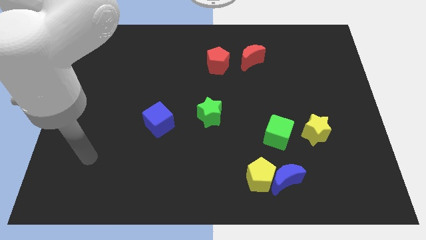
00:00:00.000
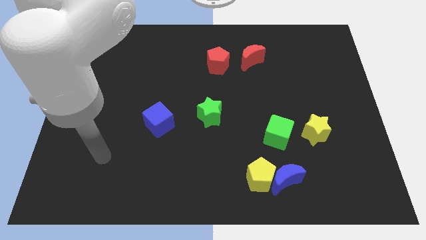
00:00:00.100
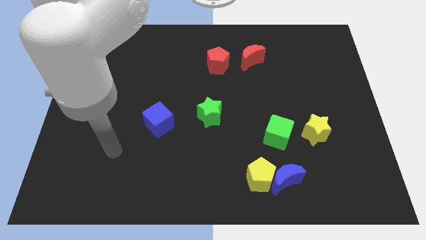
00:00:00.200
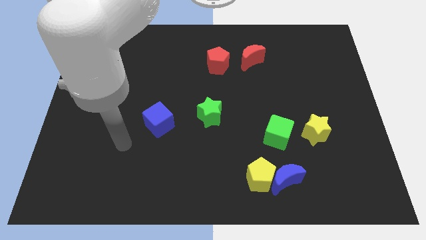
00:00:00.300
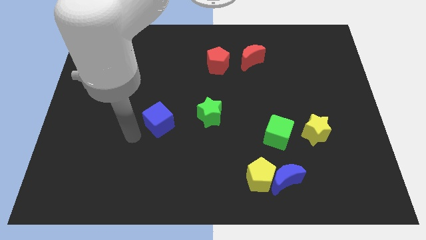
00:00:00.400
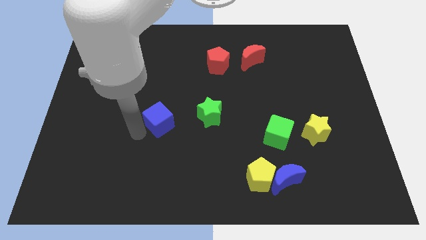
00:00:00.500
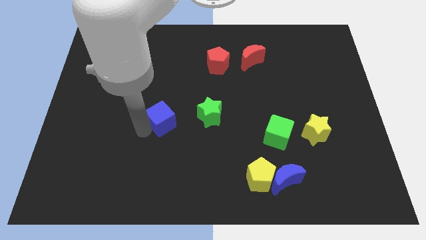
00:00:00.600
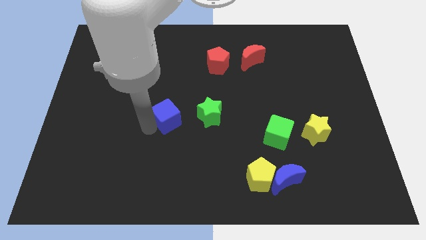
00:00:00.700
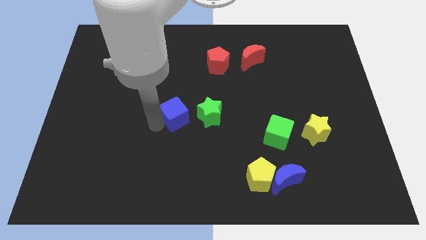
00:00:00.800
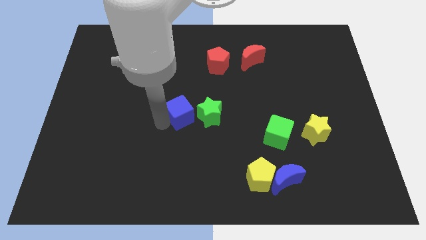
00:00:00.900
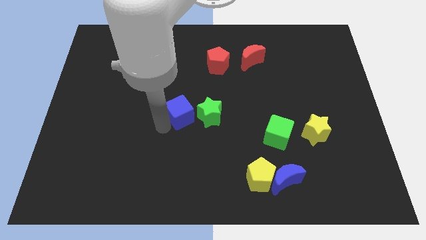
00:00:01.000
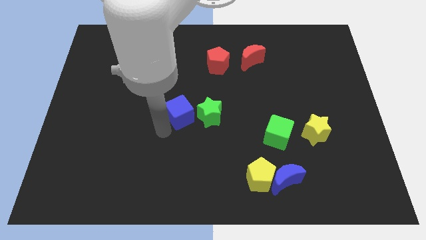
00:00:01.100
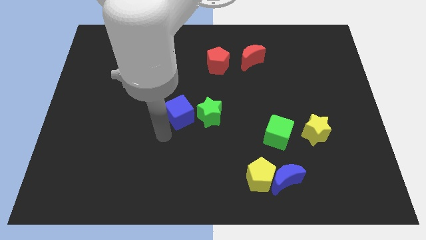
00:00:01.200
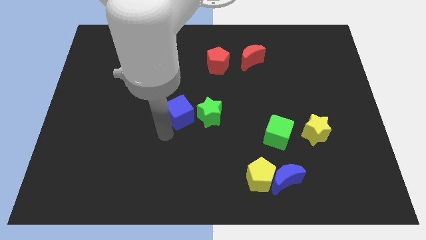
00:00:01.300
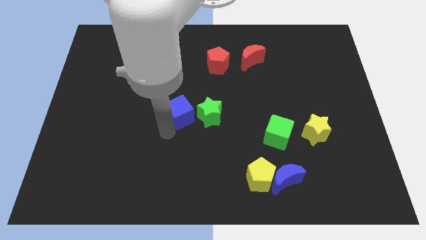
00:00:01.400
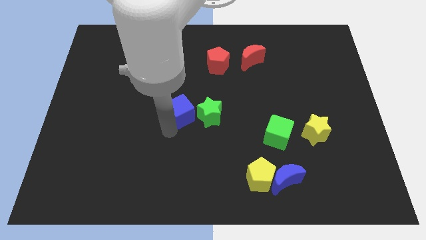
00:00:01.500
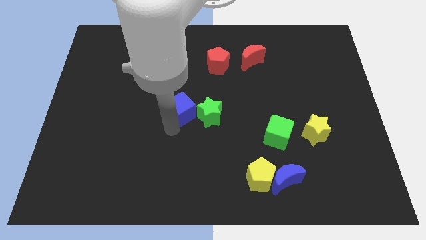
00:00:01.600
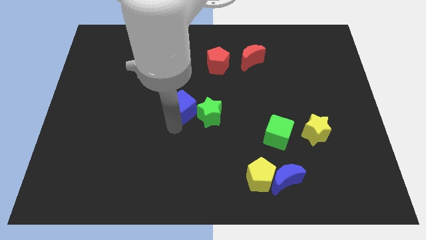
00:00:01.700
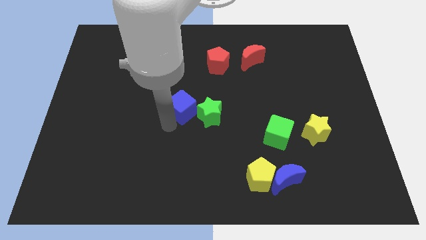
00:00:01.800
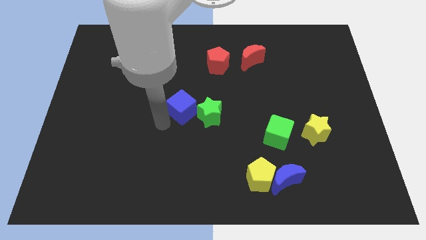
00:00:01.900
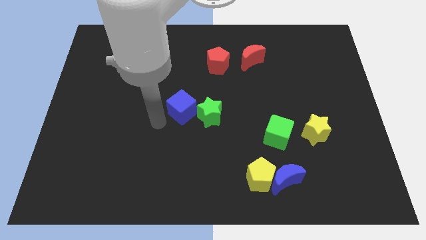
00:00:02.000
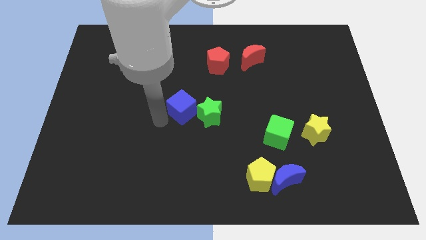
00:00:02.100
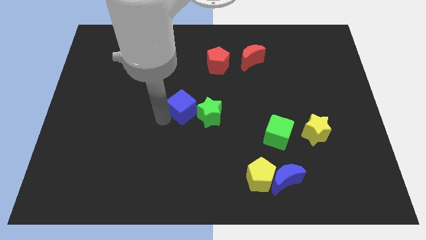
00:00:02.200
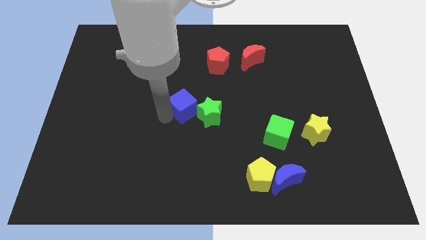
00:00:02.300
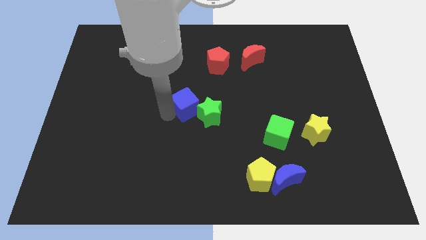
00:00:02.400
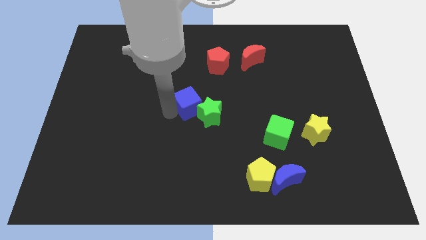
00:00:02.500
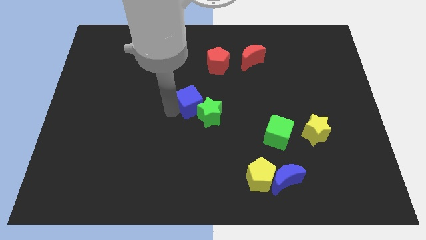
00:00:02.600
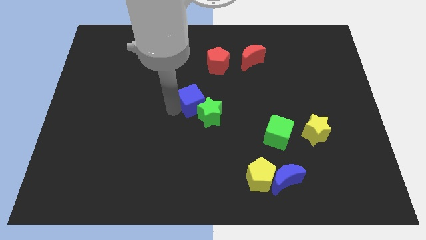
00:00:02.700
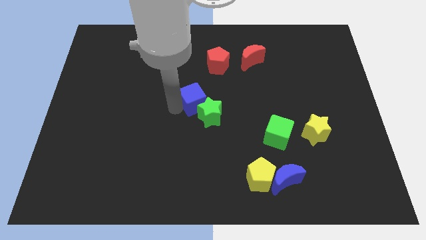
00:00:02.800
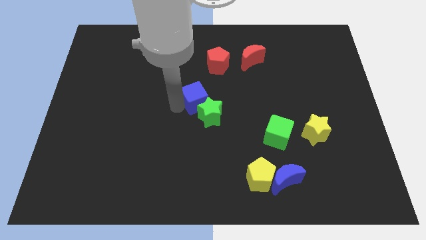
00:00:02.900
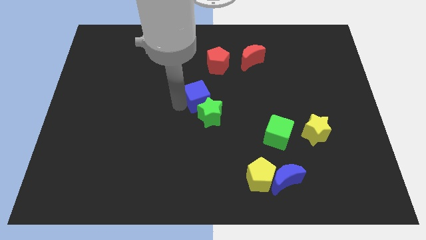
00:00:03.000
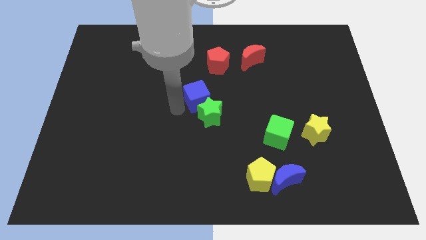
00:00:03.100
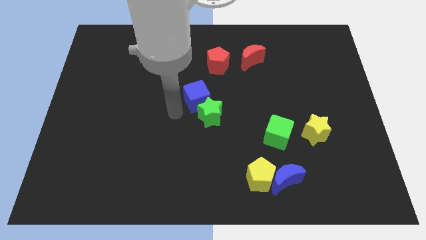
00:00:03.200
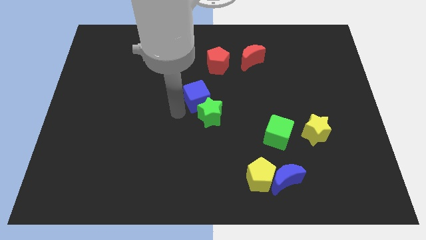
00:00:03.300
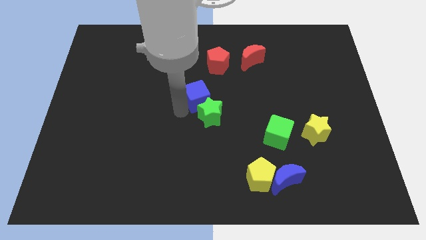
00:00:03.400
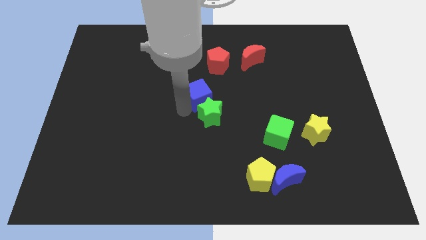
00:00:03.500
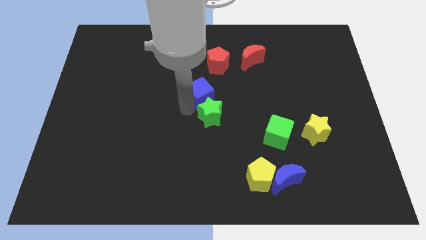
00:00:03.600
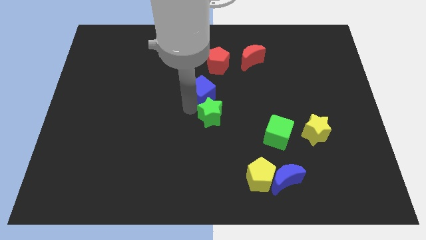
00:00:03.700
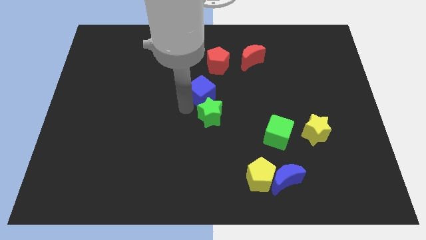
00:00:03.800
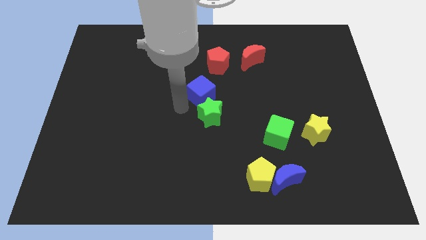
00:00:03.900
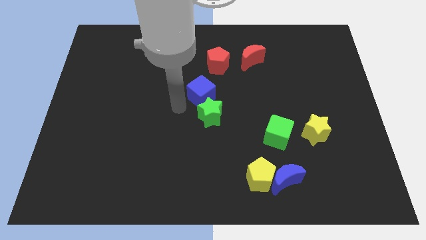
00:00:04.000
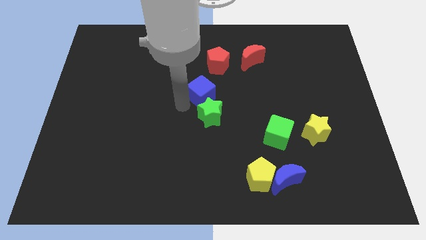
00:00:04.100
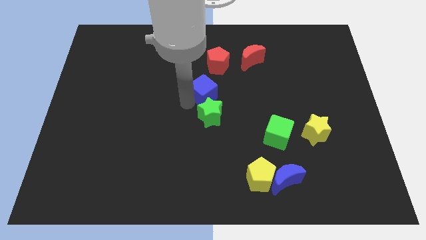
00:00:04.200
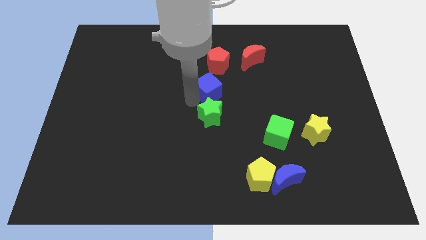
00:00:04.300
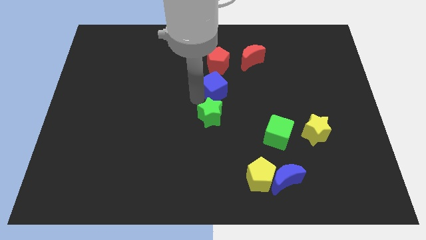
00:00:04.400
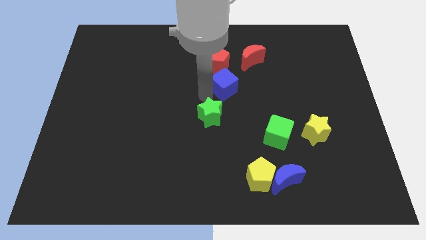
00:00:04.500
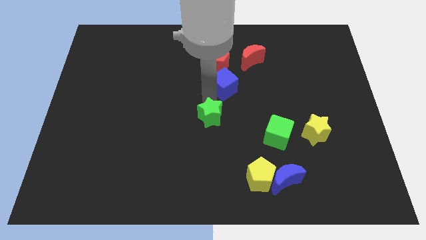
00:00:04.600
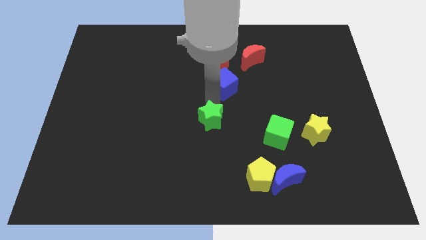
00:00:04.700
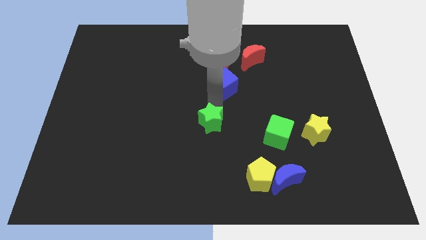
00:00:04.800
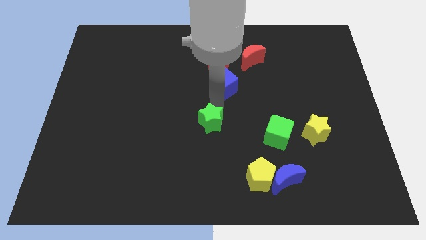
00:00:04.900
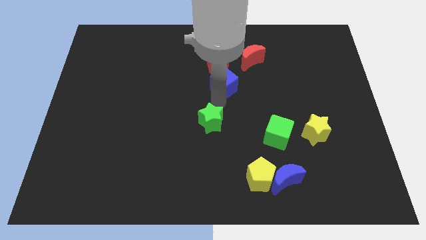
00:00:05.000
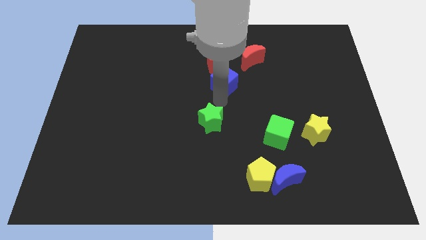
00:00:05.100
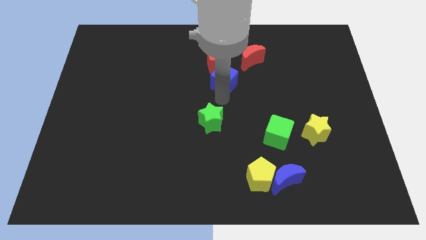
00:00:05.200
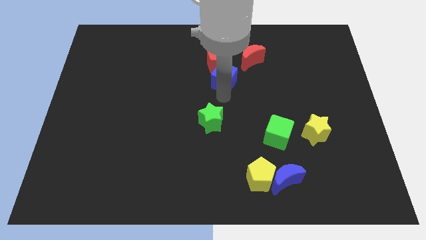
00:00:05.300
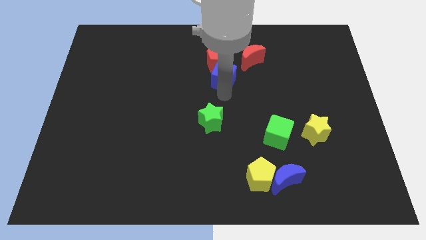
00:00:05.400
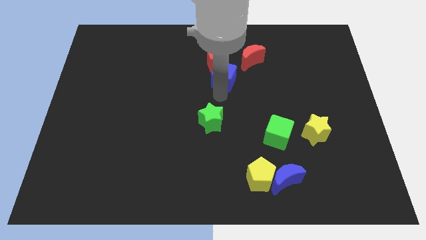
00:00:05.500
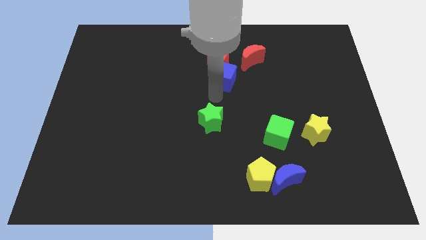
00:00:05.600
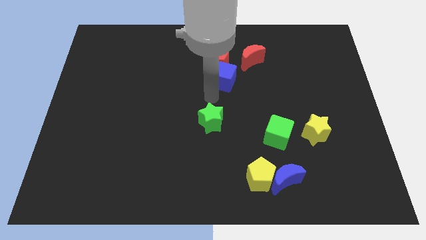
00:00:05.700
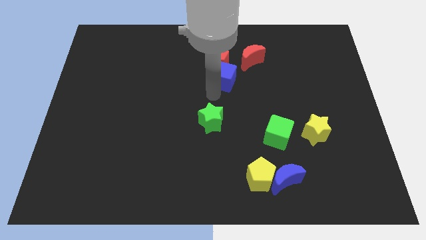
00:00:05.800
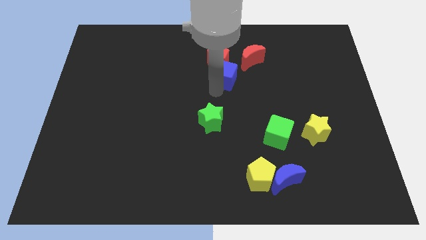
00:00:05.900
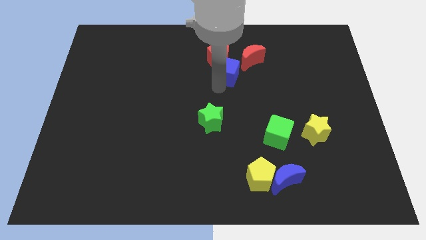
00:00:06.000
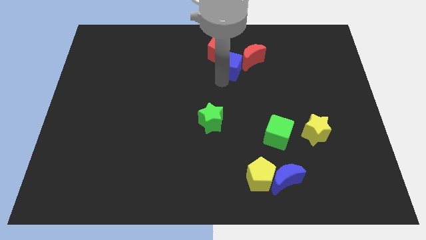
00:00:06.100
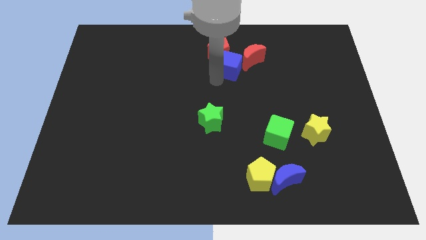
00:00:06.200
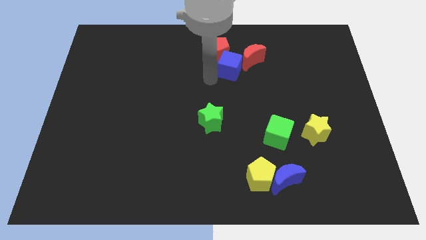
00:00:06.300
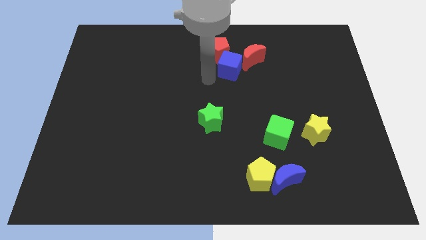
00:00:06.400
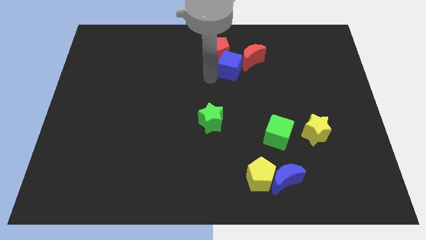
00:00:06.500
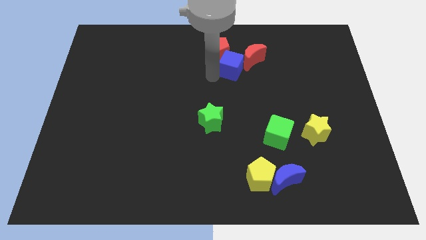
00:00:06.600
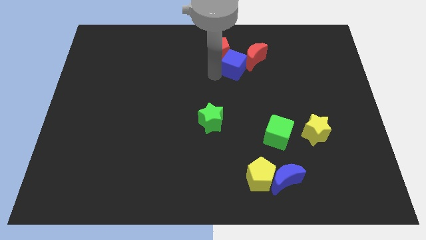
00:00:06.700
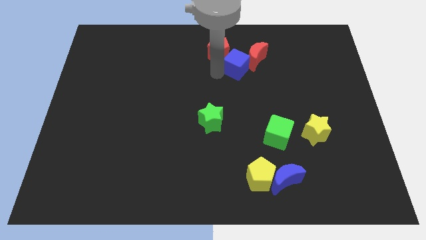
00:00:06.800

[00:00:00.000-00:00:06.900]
slide the blue cube next to the red moon
